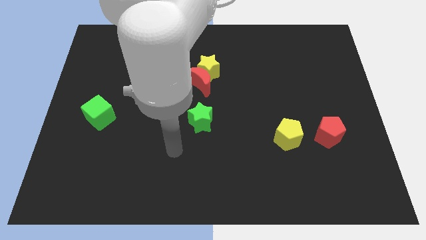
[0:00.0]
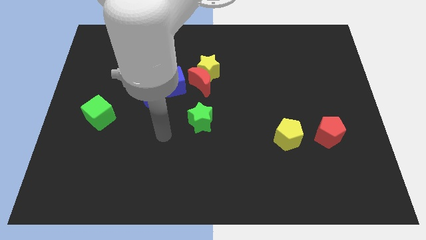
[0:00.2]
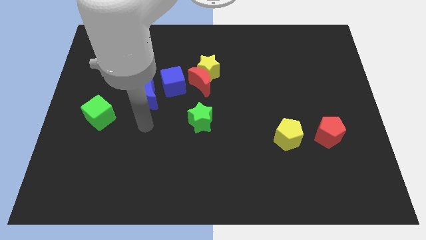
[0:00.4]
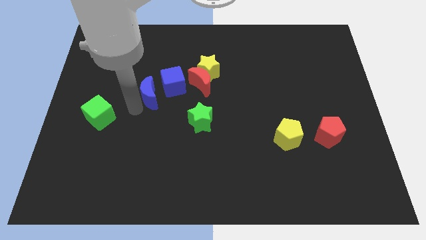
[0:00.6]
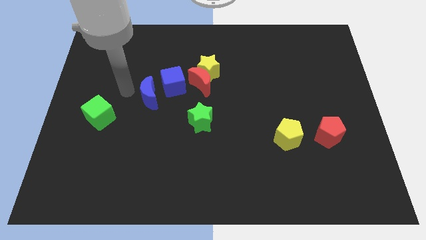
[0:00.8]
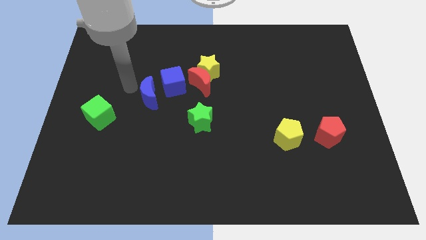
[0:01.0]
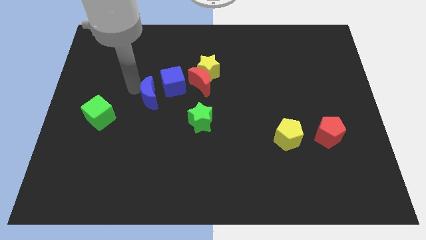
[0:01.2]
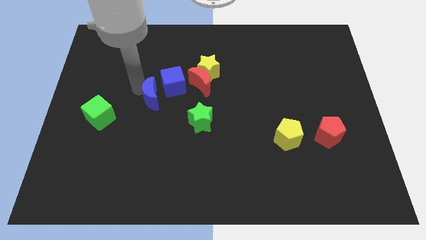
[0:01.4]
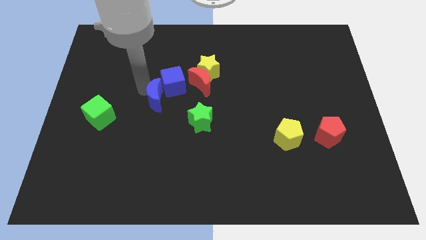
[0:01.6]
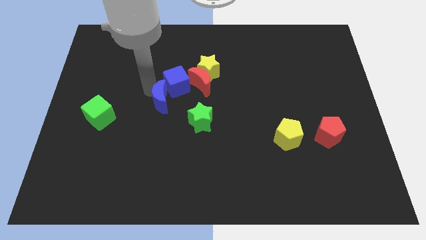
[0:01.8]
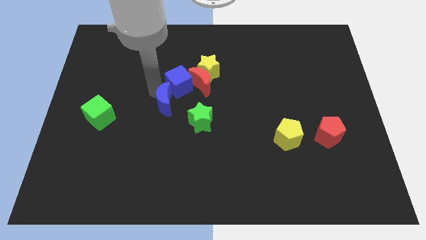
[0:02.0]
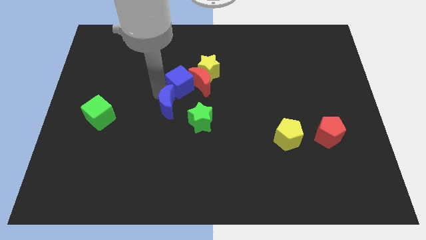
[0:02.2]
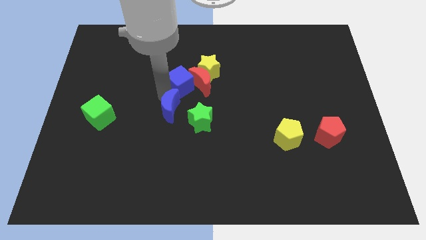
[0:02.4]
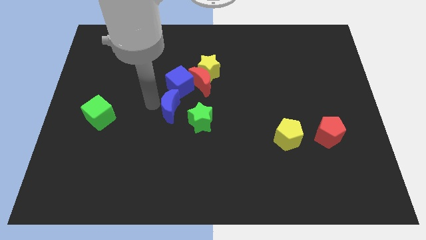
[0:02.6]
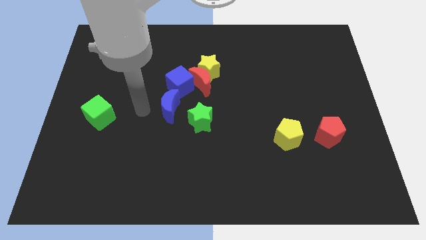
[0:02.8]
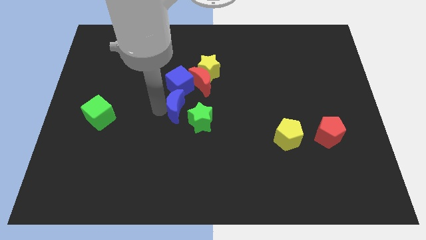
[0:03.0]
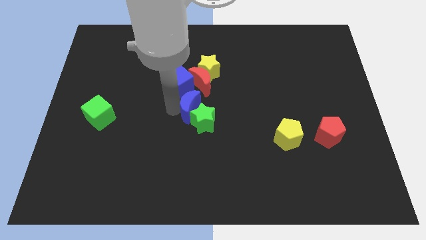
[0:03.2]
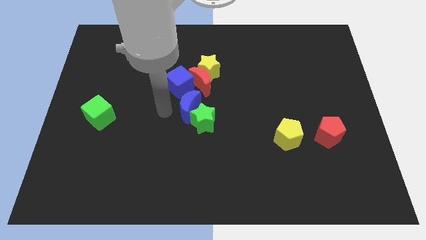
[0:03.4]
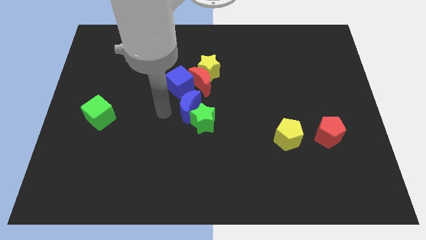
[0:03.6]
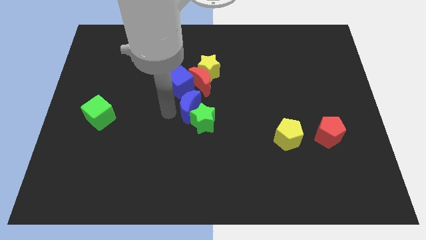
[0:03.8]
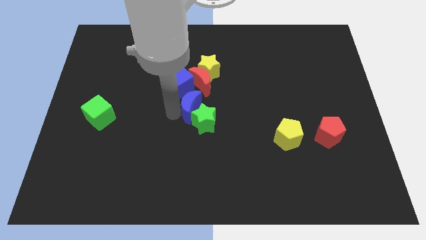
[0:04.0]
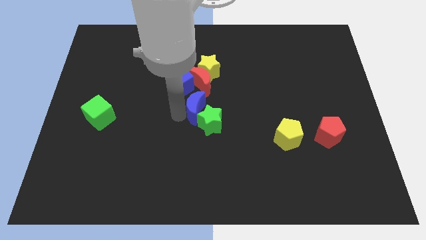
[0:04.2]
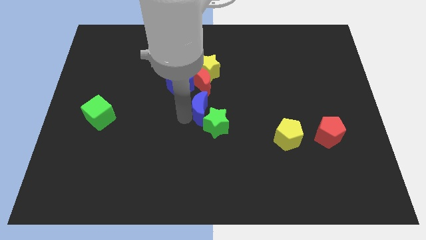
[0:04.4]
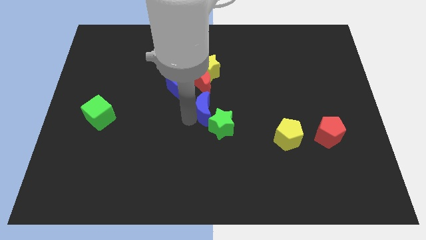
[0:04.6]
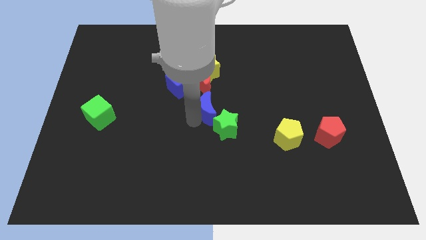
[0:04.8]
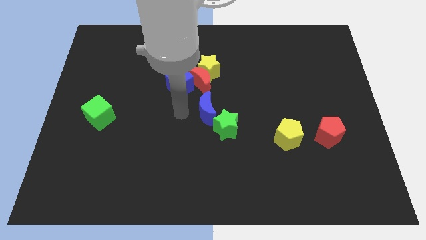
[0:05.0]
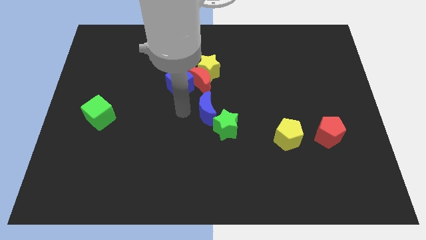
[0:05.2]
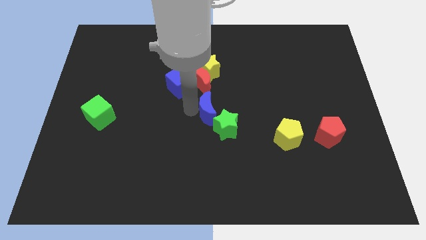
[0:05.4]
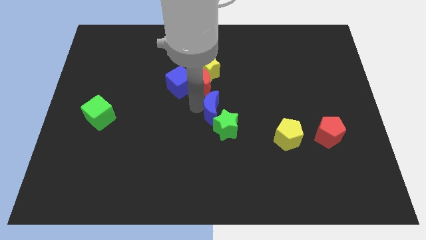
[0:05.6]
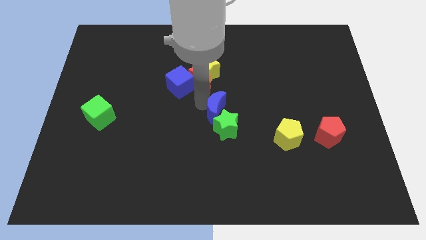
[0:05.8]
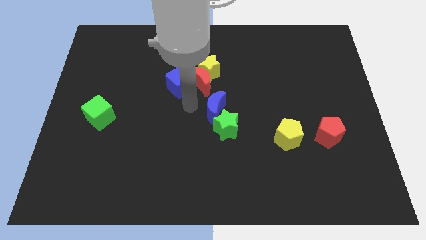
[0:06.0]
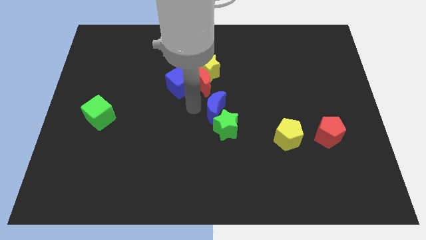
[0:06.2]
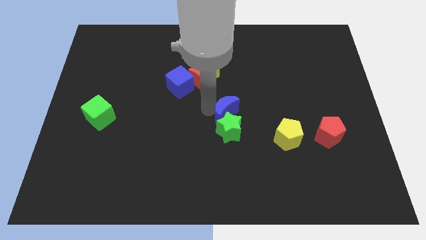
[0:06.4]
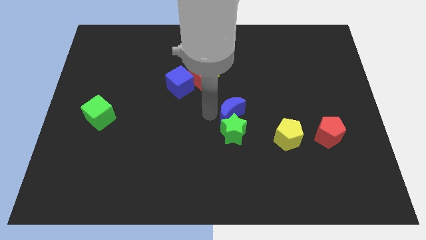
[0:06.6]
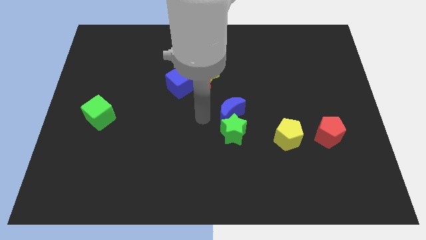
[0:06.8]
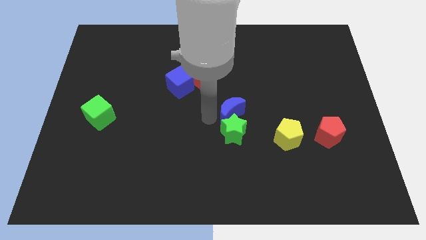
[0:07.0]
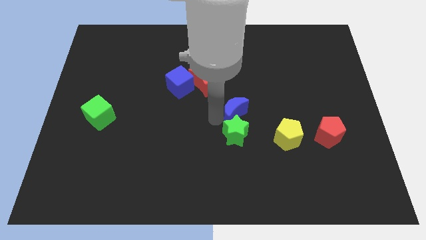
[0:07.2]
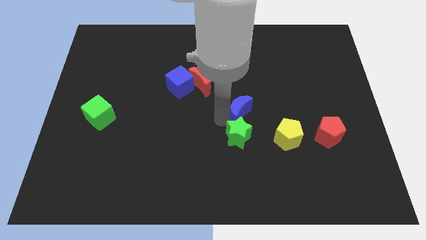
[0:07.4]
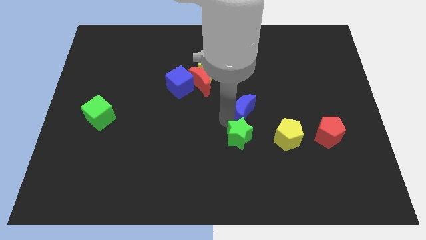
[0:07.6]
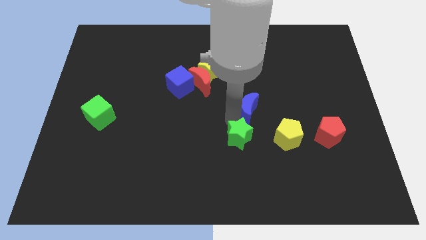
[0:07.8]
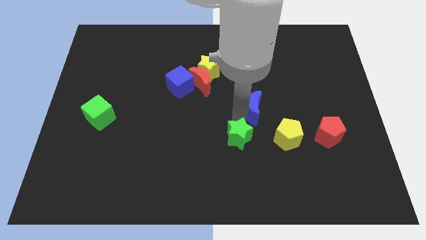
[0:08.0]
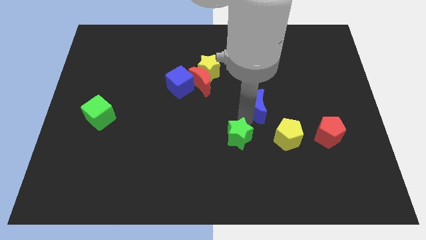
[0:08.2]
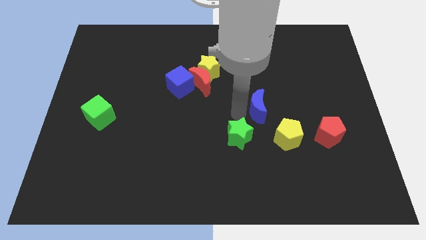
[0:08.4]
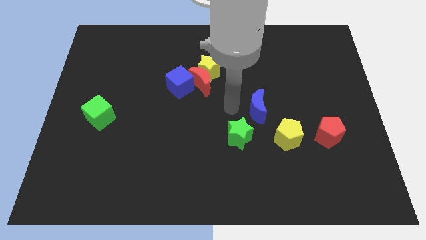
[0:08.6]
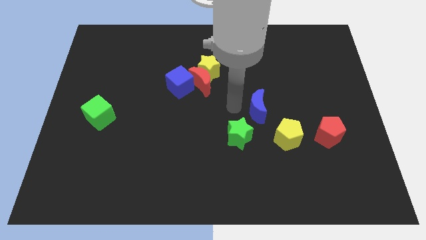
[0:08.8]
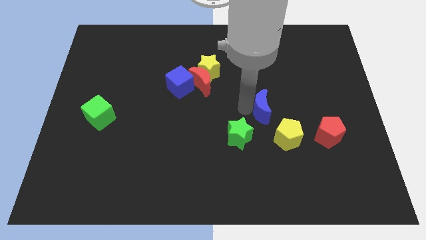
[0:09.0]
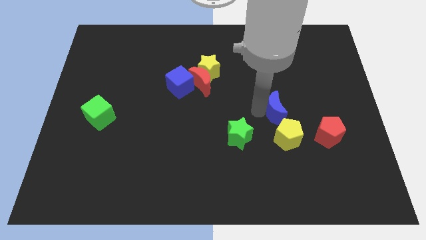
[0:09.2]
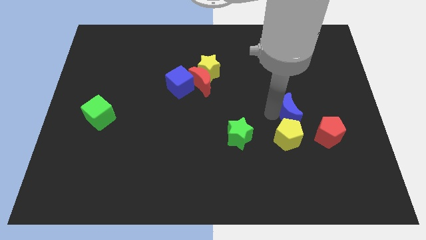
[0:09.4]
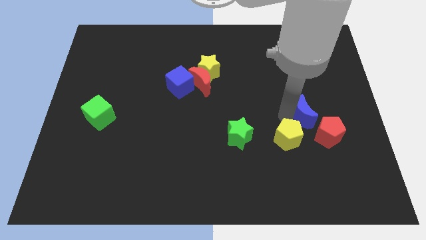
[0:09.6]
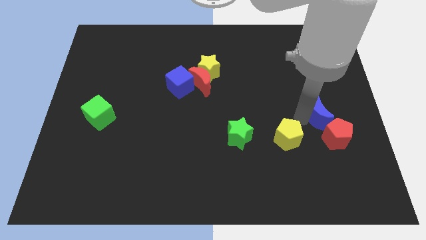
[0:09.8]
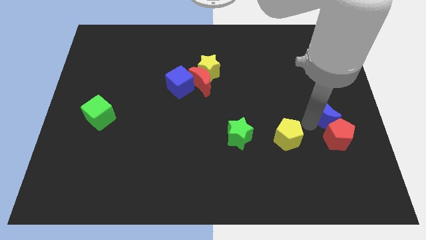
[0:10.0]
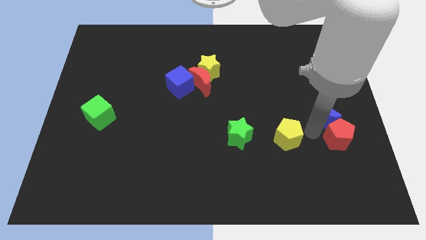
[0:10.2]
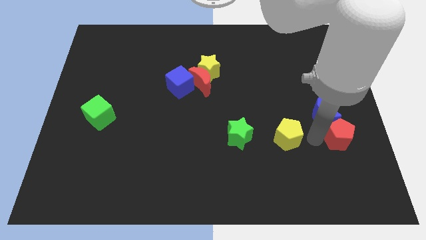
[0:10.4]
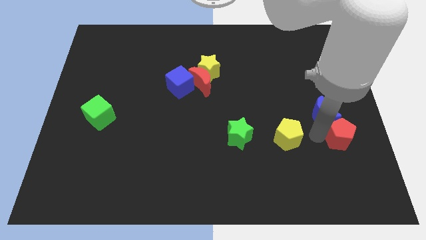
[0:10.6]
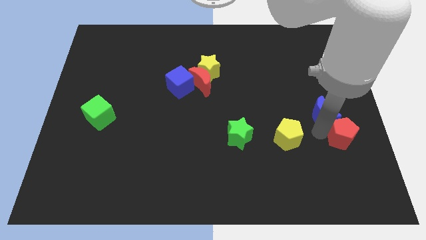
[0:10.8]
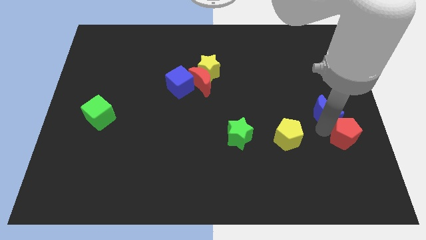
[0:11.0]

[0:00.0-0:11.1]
push the blue moon to the right side
